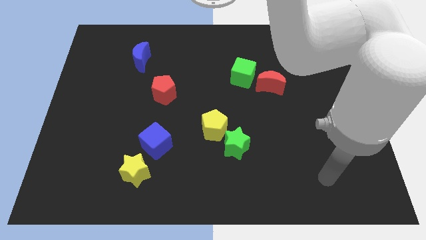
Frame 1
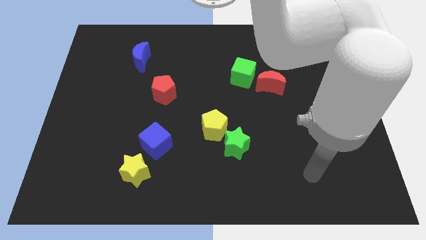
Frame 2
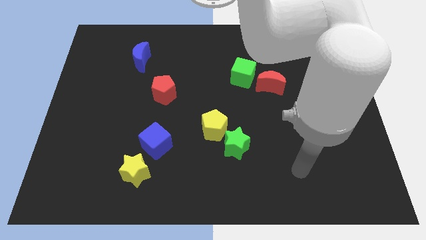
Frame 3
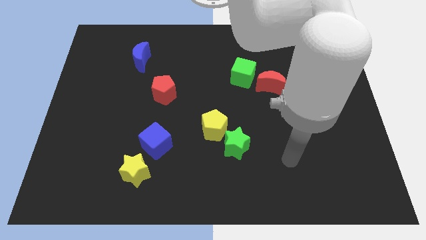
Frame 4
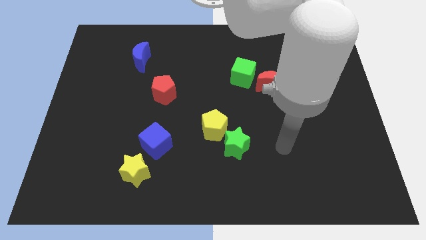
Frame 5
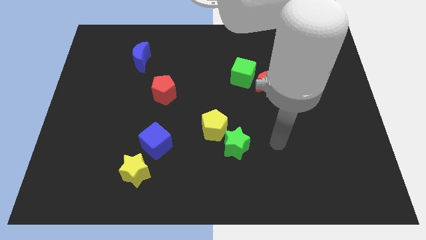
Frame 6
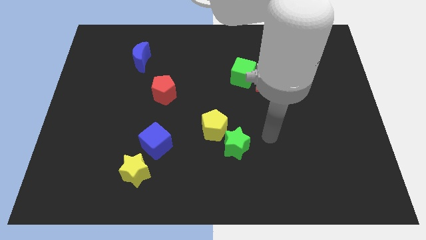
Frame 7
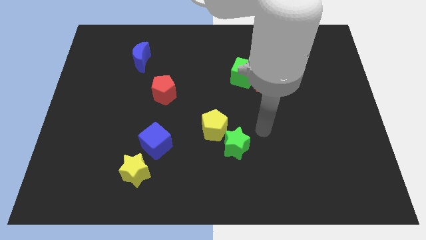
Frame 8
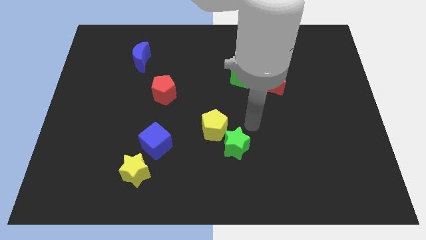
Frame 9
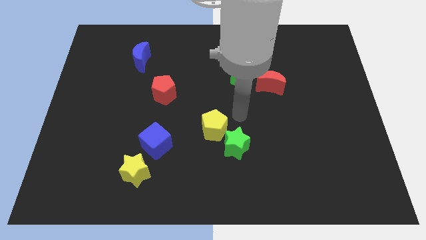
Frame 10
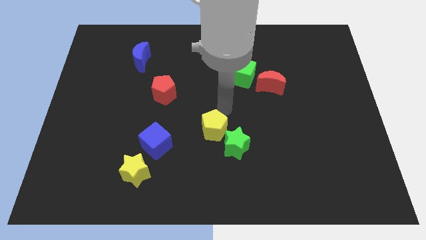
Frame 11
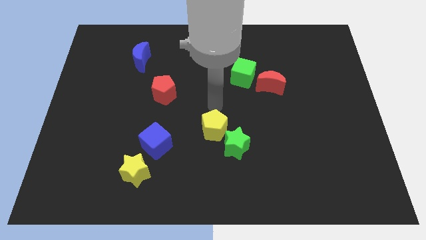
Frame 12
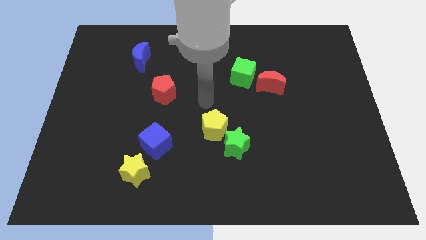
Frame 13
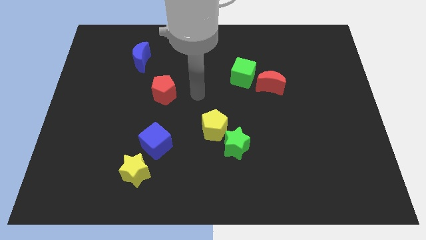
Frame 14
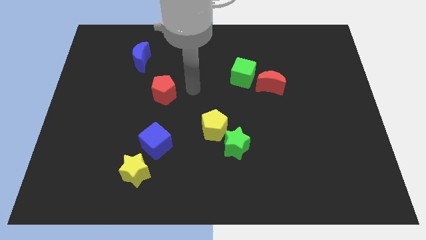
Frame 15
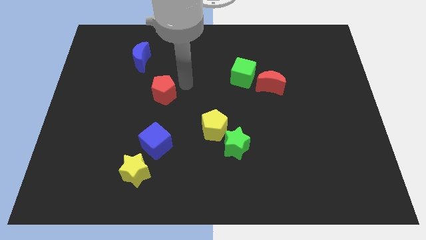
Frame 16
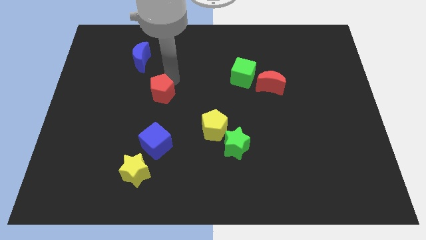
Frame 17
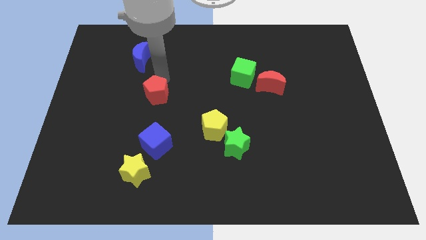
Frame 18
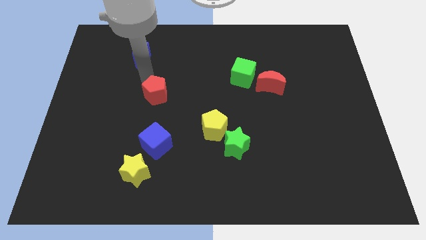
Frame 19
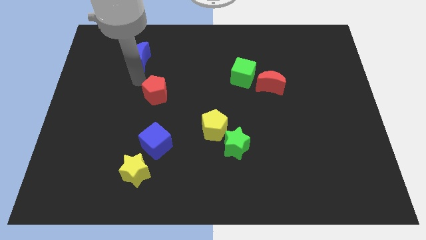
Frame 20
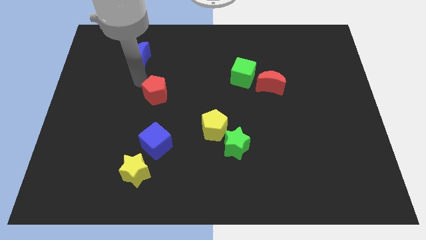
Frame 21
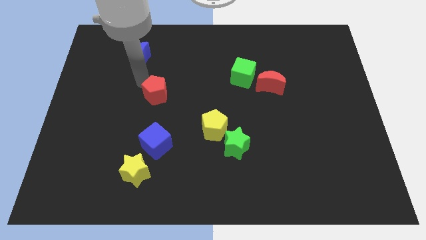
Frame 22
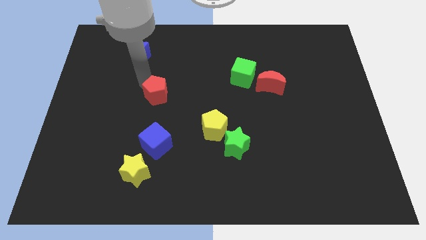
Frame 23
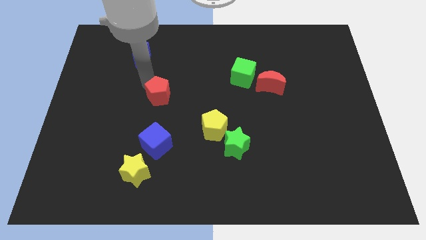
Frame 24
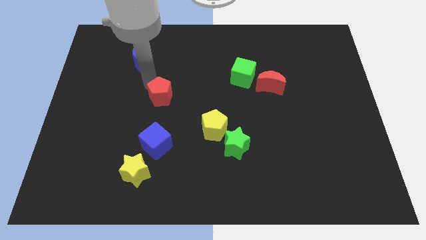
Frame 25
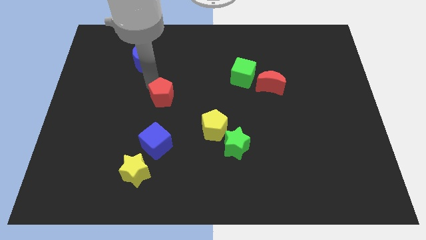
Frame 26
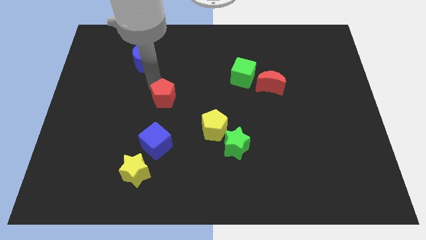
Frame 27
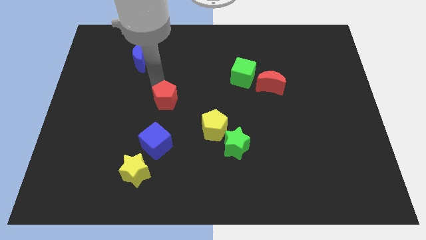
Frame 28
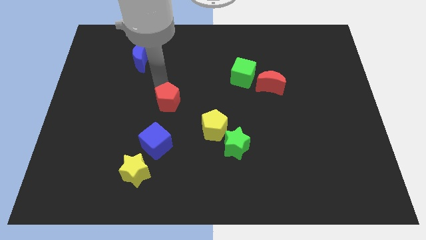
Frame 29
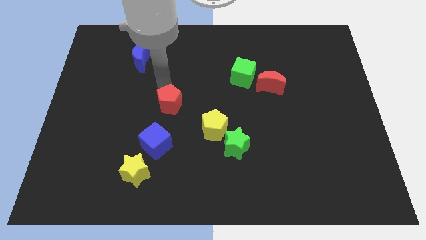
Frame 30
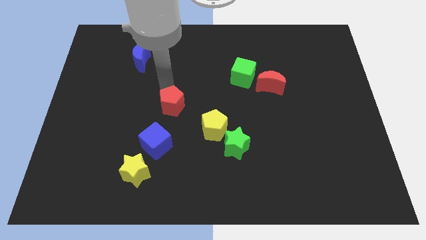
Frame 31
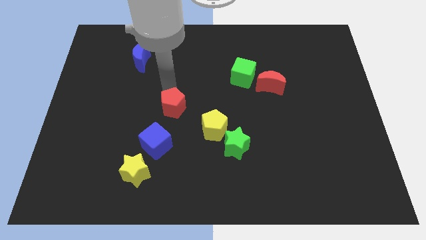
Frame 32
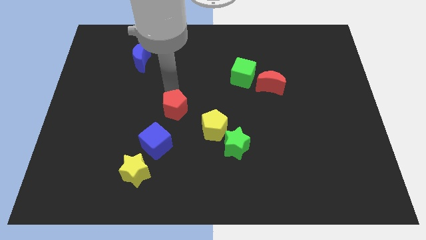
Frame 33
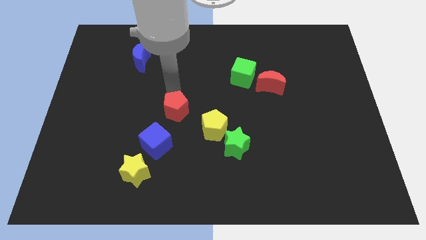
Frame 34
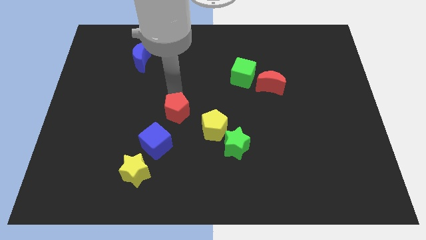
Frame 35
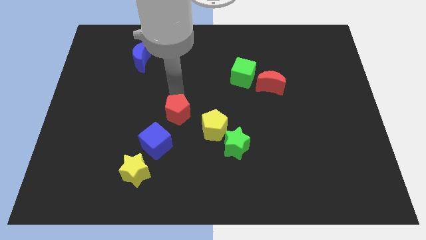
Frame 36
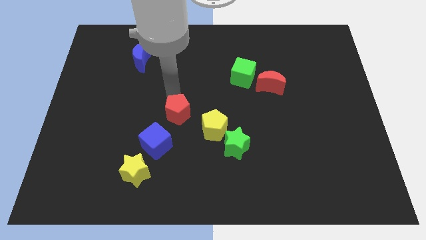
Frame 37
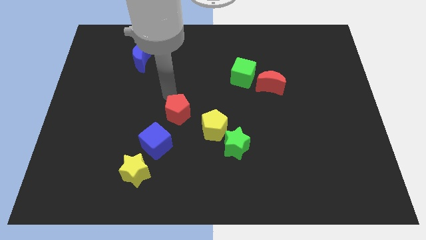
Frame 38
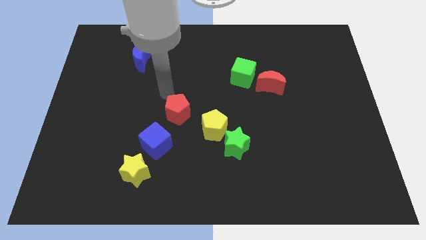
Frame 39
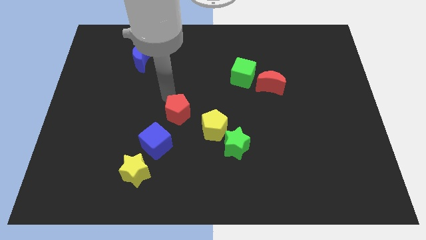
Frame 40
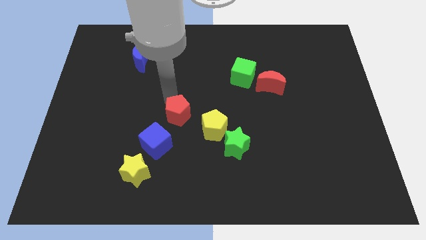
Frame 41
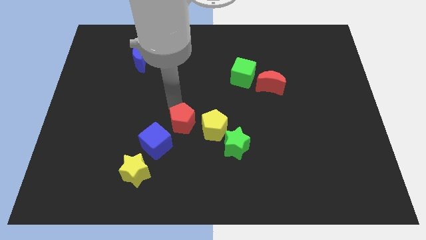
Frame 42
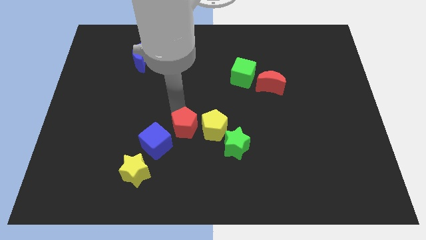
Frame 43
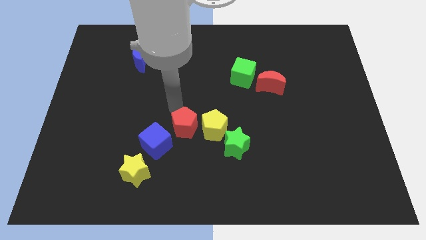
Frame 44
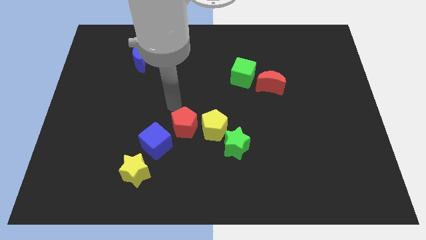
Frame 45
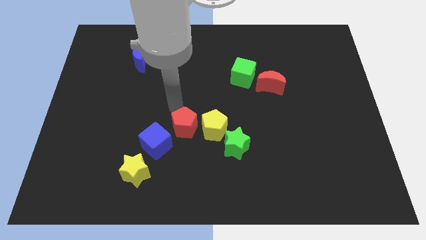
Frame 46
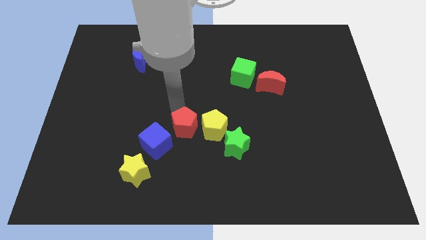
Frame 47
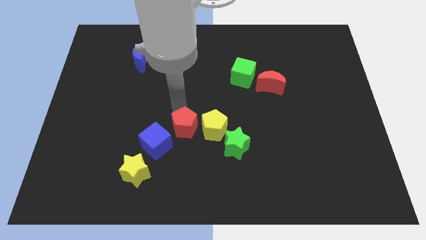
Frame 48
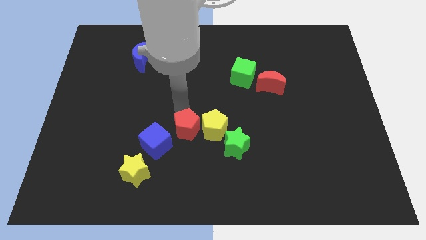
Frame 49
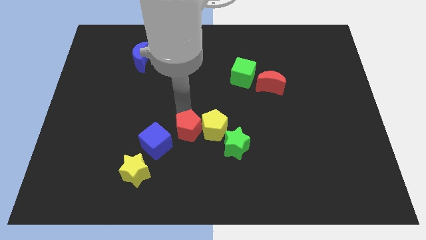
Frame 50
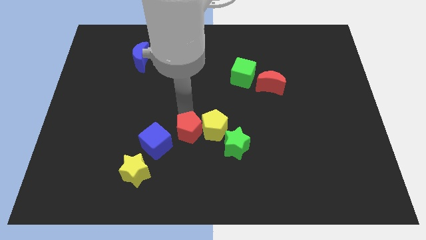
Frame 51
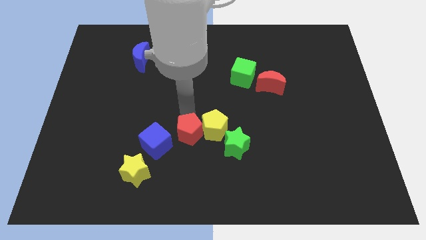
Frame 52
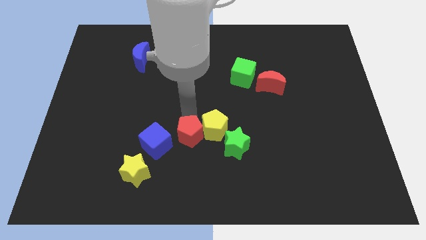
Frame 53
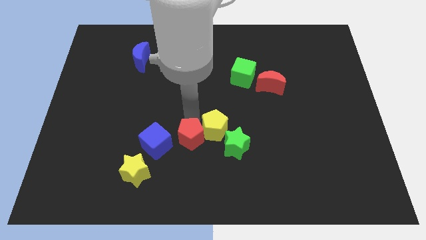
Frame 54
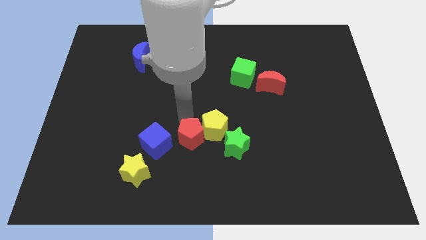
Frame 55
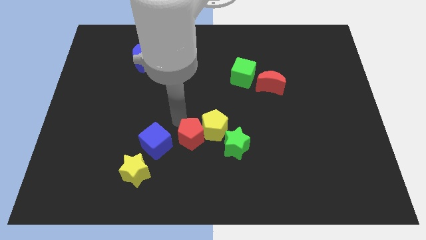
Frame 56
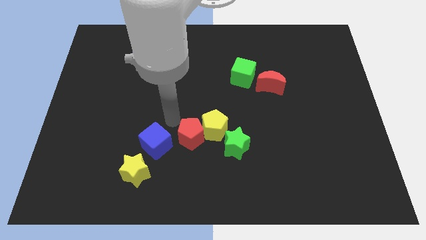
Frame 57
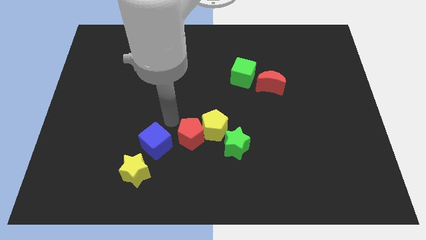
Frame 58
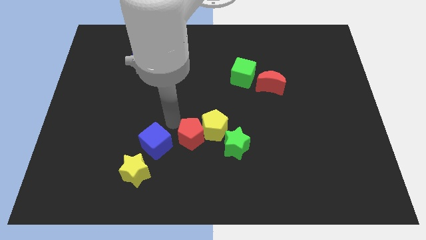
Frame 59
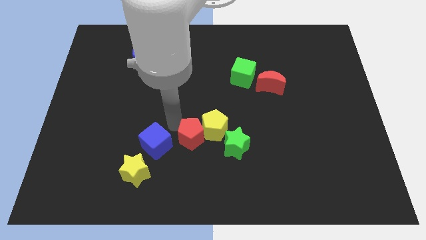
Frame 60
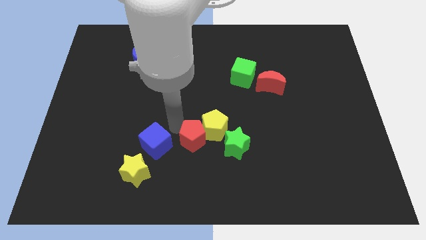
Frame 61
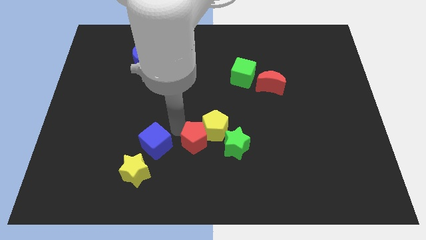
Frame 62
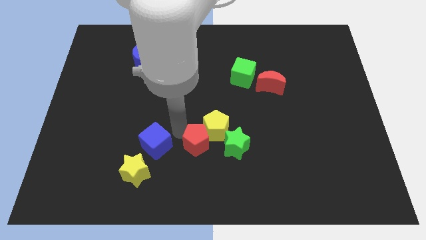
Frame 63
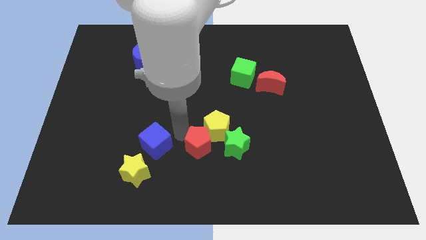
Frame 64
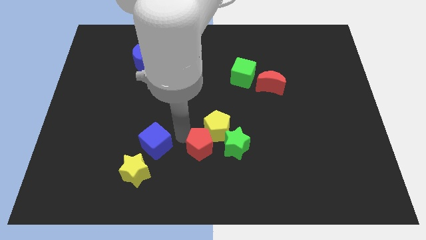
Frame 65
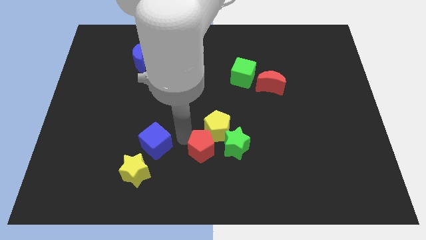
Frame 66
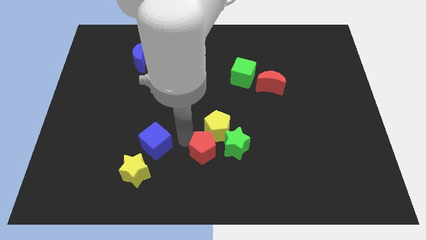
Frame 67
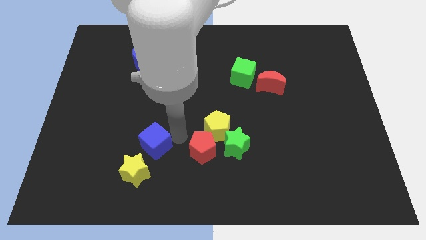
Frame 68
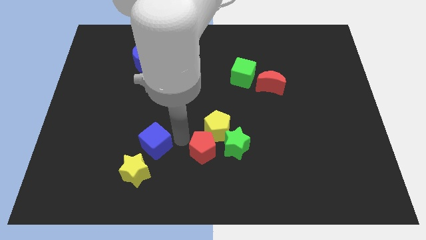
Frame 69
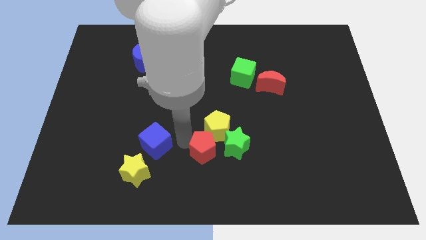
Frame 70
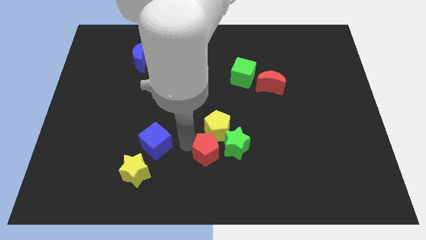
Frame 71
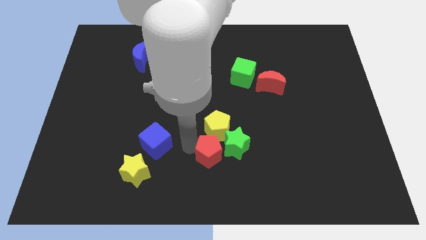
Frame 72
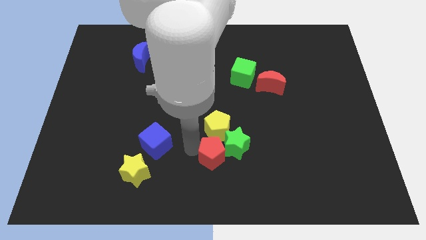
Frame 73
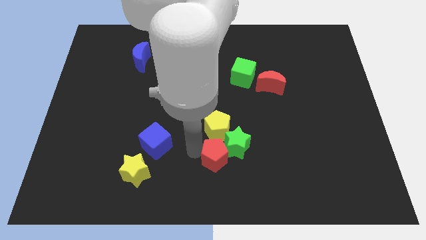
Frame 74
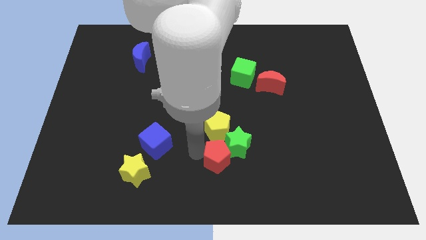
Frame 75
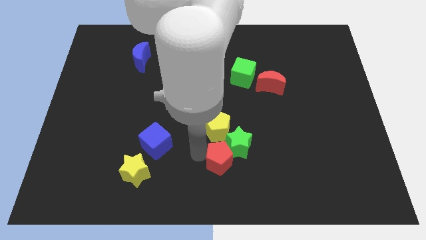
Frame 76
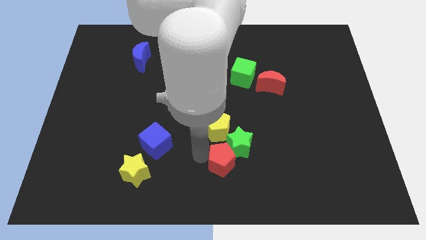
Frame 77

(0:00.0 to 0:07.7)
push the red pentagon to the bottom right of the yellow pentagon
